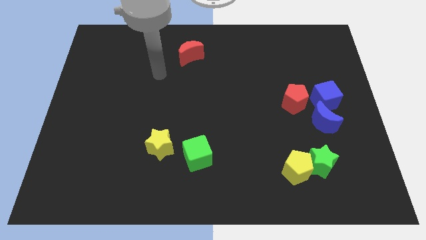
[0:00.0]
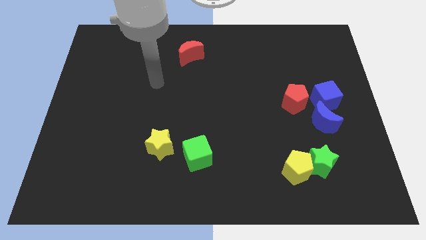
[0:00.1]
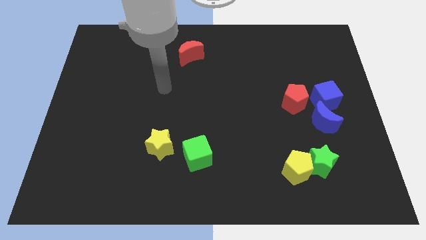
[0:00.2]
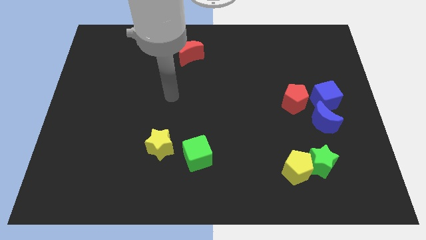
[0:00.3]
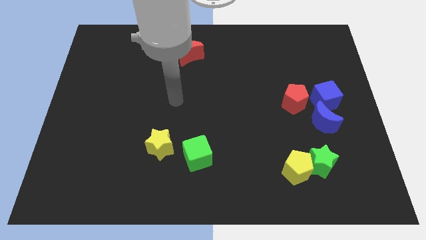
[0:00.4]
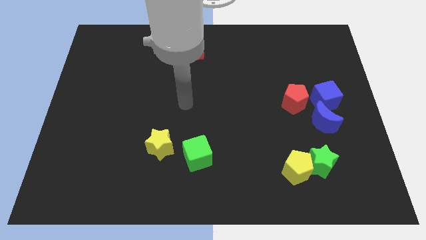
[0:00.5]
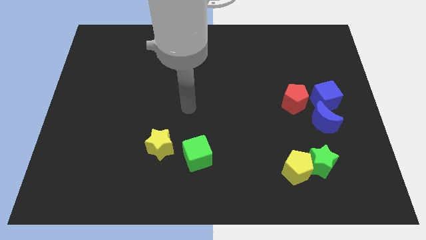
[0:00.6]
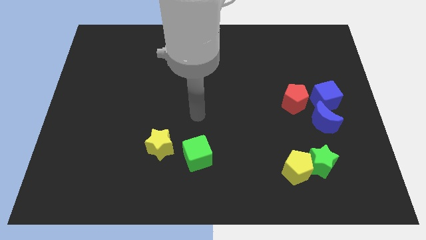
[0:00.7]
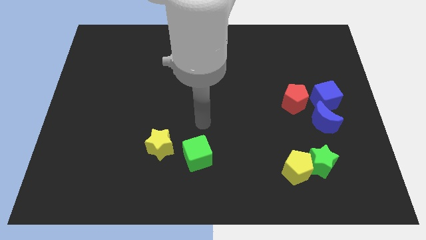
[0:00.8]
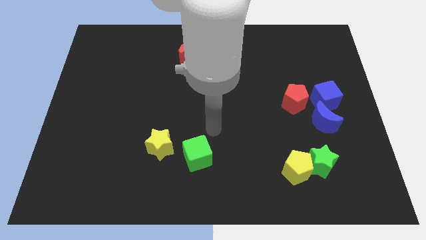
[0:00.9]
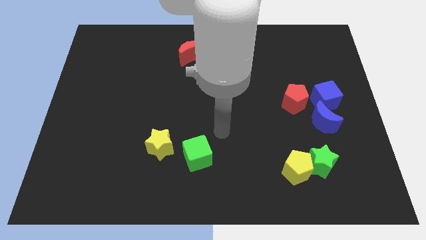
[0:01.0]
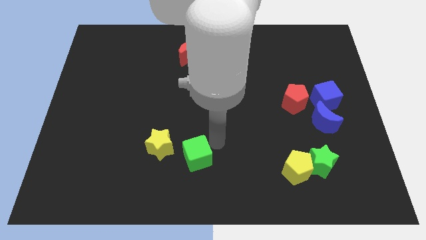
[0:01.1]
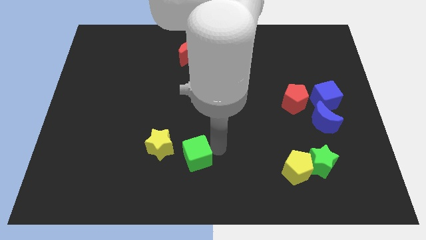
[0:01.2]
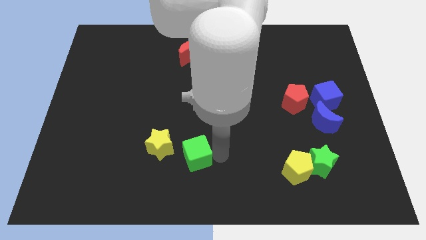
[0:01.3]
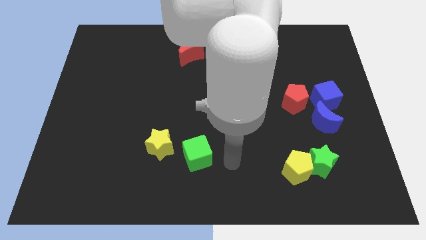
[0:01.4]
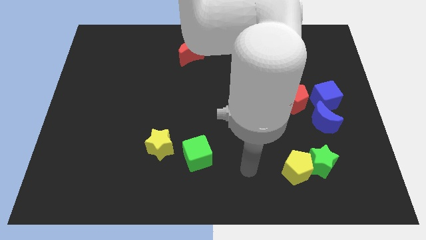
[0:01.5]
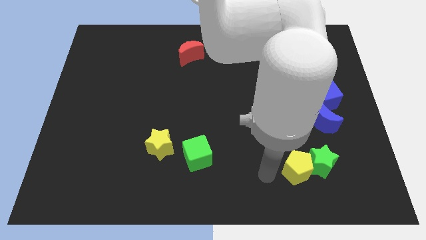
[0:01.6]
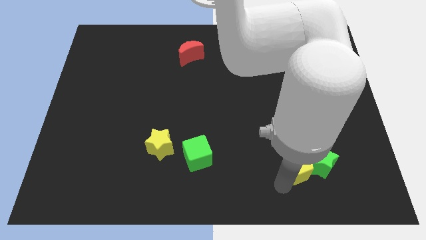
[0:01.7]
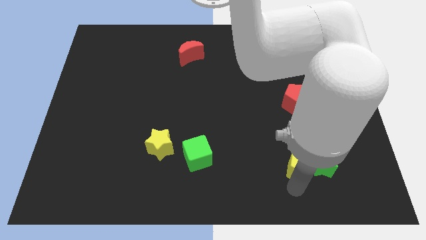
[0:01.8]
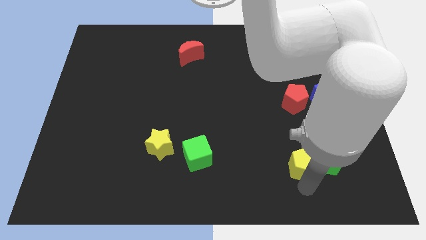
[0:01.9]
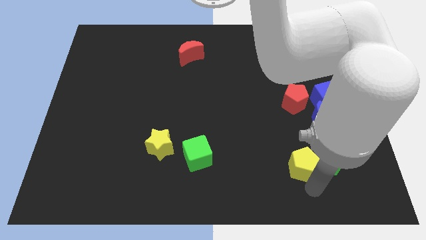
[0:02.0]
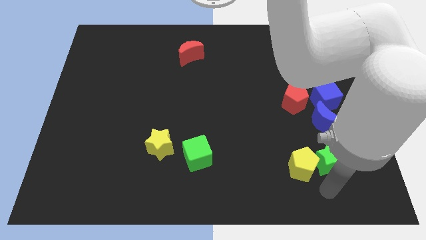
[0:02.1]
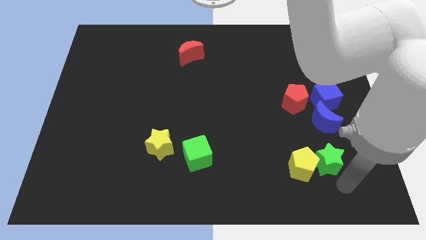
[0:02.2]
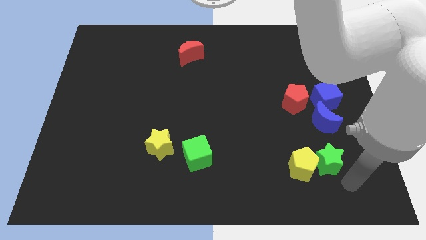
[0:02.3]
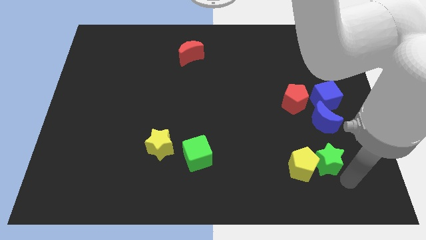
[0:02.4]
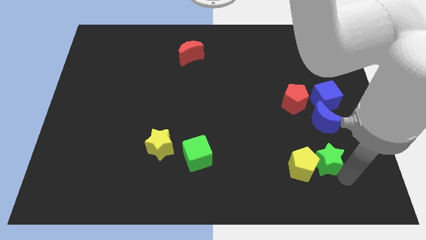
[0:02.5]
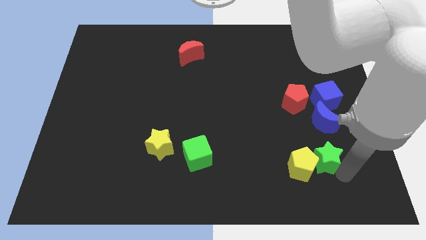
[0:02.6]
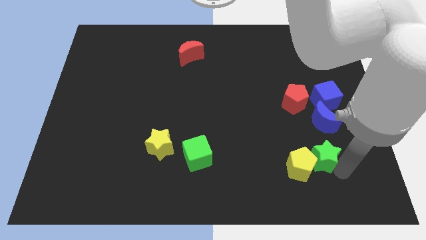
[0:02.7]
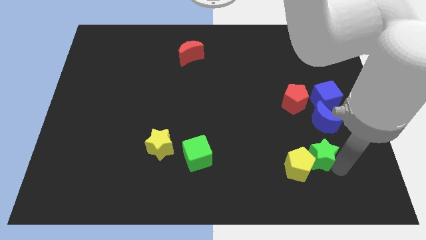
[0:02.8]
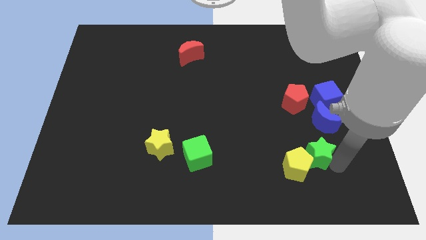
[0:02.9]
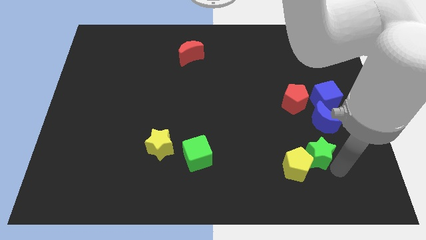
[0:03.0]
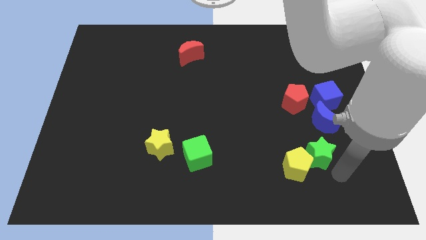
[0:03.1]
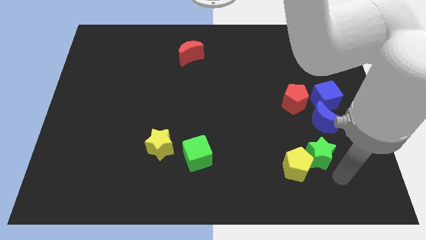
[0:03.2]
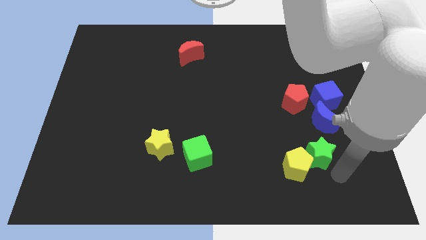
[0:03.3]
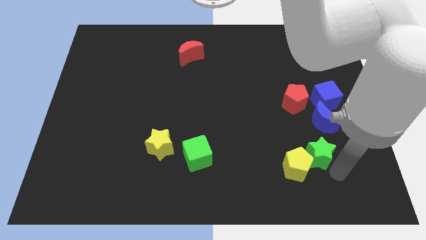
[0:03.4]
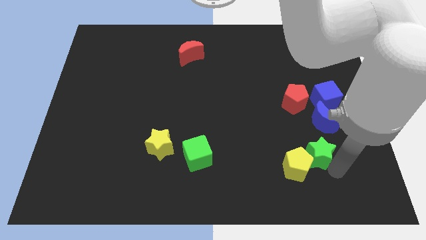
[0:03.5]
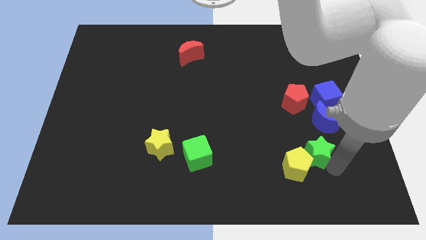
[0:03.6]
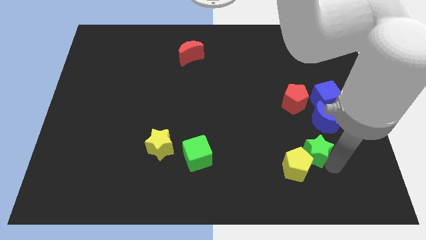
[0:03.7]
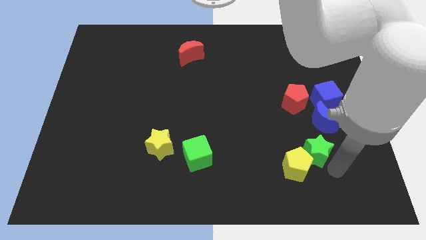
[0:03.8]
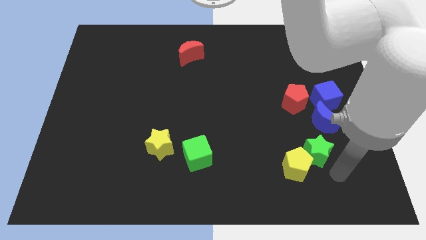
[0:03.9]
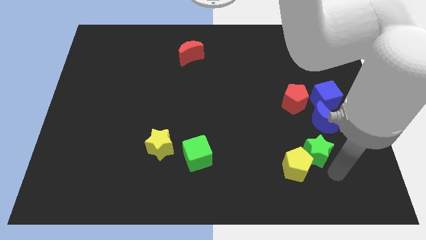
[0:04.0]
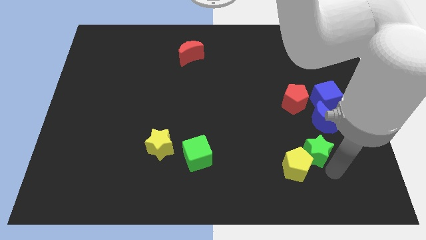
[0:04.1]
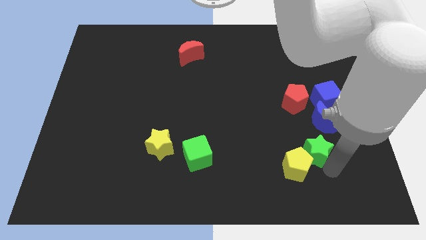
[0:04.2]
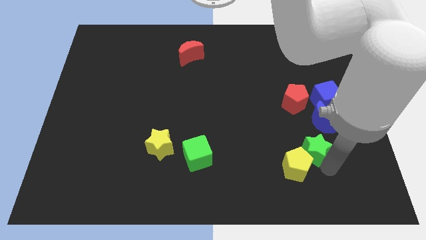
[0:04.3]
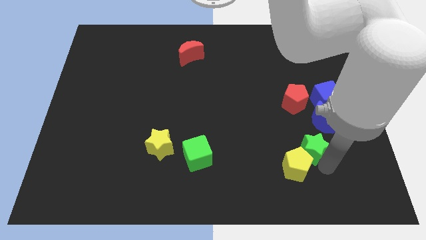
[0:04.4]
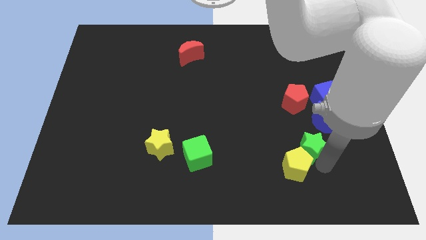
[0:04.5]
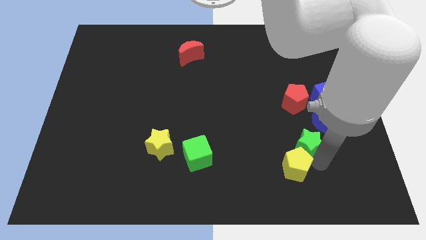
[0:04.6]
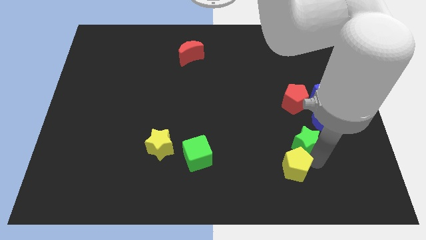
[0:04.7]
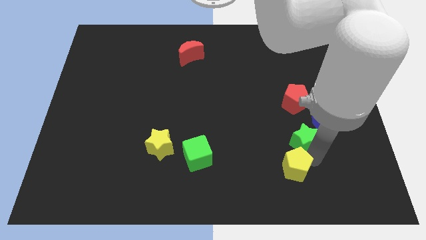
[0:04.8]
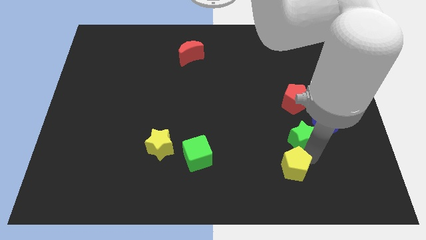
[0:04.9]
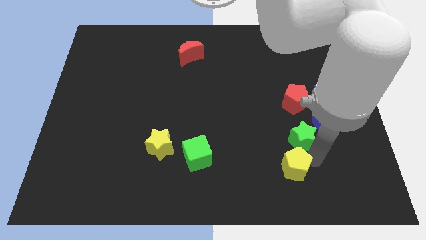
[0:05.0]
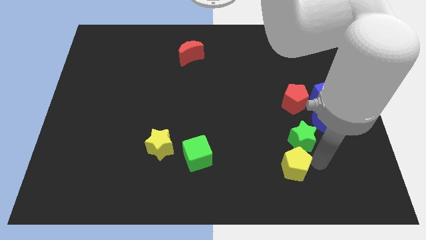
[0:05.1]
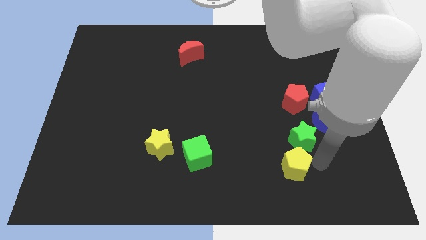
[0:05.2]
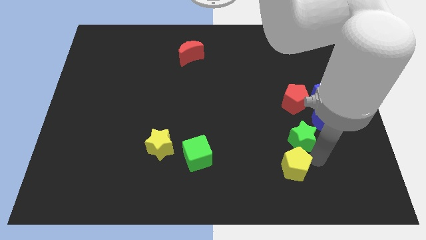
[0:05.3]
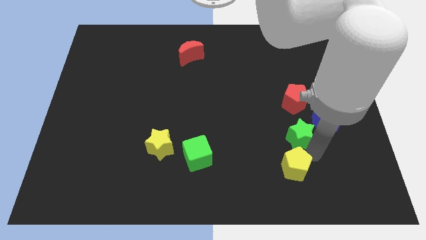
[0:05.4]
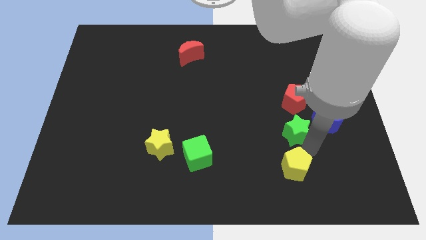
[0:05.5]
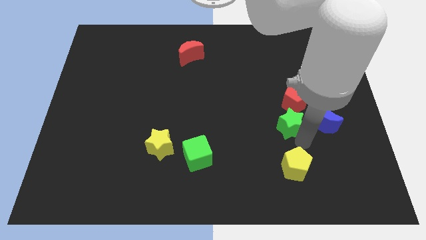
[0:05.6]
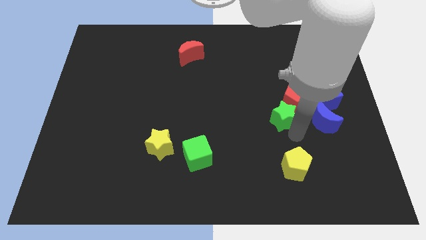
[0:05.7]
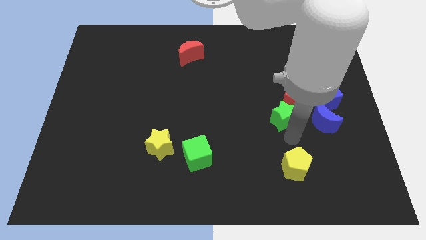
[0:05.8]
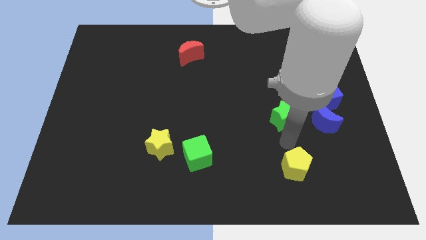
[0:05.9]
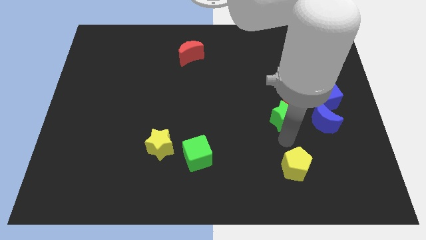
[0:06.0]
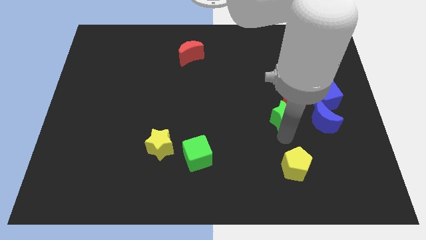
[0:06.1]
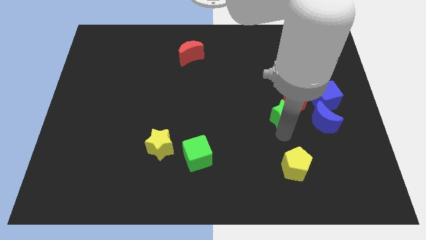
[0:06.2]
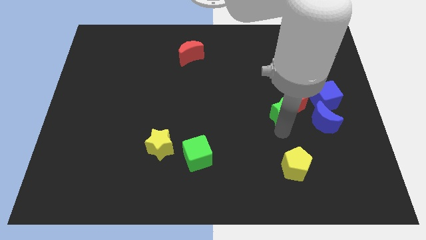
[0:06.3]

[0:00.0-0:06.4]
slide the green star just left of the blue cube

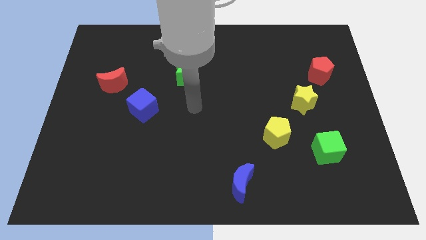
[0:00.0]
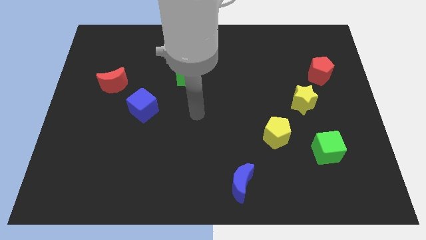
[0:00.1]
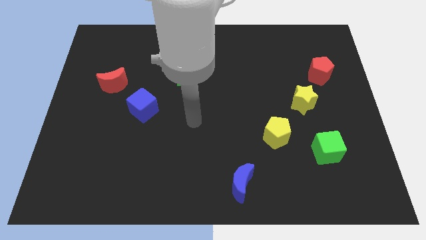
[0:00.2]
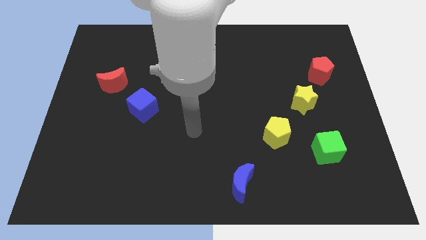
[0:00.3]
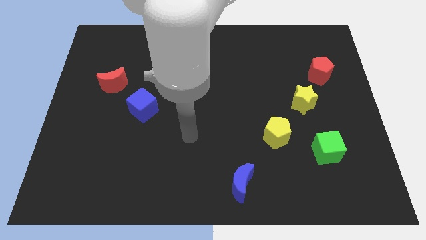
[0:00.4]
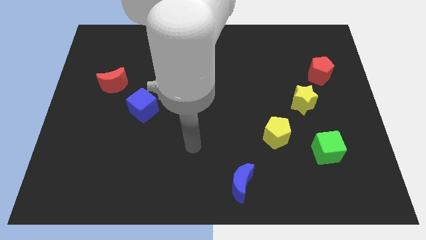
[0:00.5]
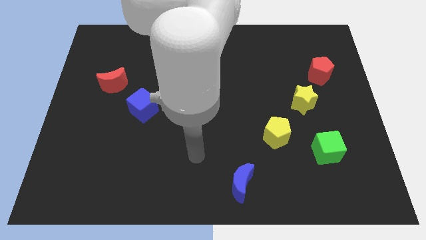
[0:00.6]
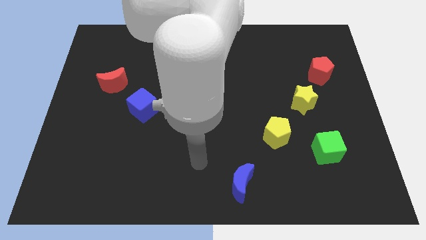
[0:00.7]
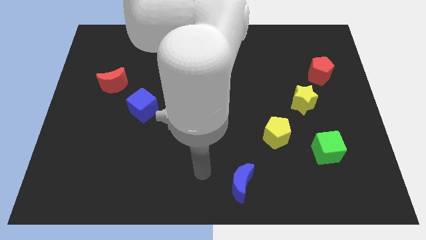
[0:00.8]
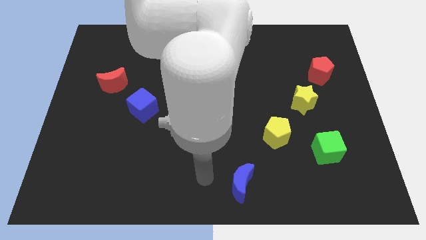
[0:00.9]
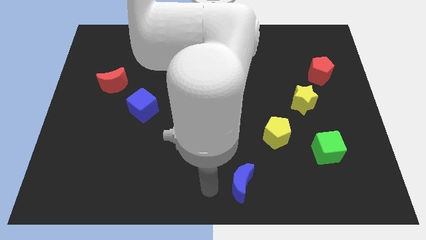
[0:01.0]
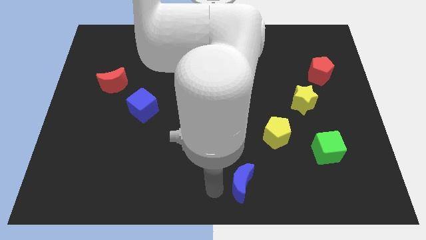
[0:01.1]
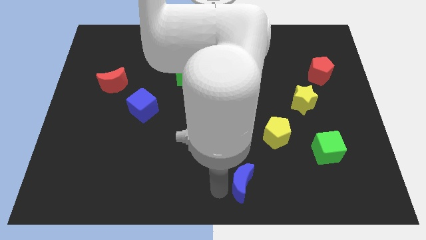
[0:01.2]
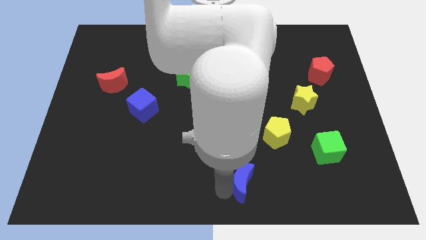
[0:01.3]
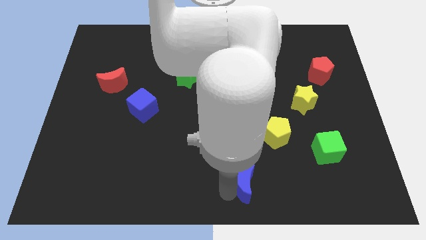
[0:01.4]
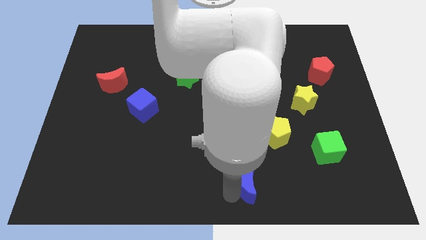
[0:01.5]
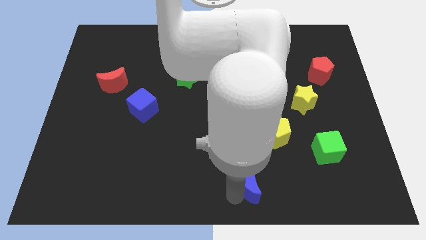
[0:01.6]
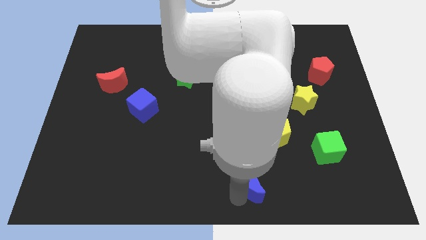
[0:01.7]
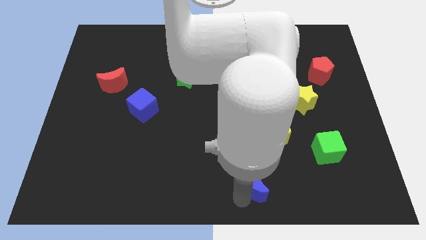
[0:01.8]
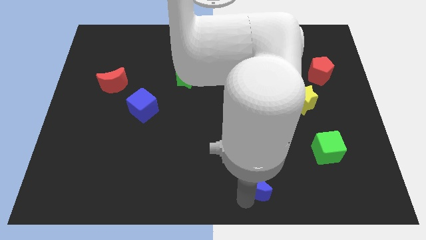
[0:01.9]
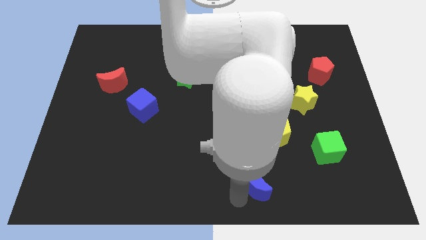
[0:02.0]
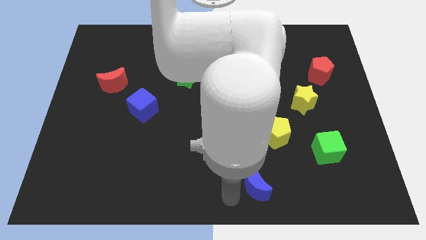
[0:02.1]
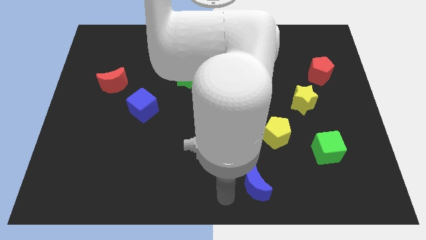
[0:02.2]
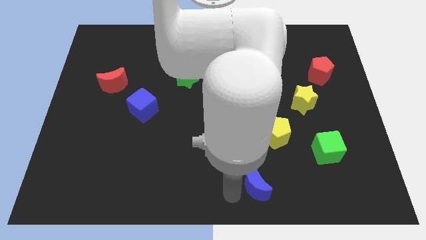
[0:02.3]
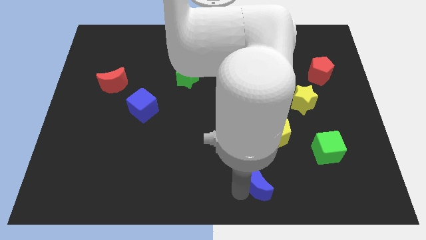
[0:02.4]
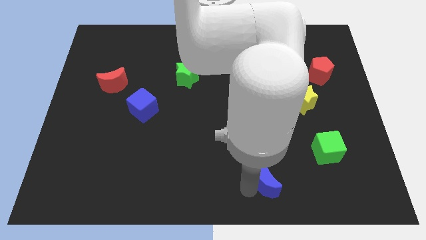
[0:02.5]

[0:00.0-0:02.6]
push the blue moon to the bottom side of the yellow pentagon
